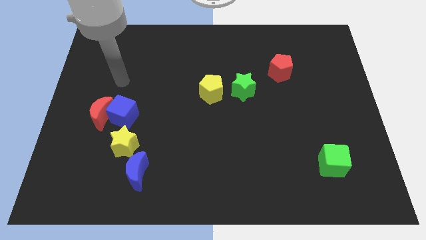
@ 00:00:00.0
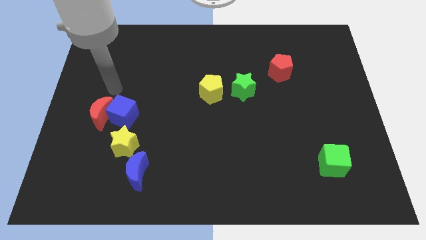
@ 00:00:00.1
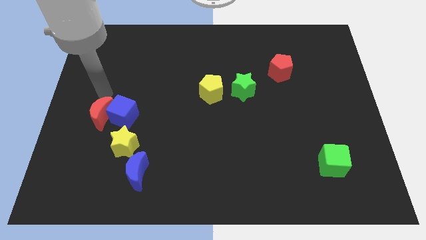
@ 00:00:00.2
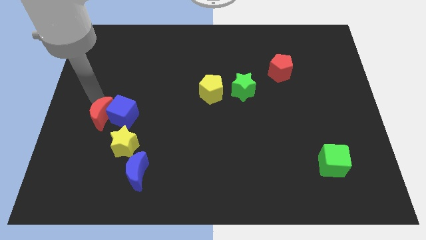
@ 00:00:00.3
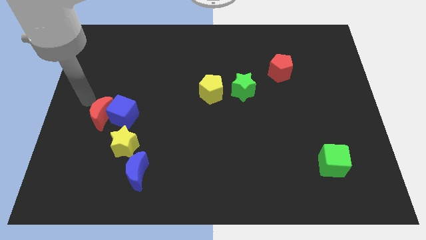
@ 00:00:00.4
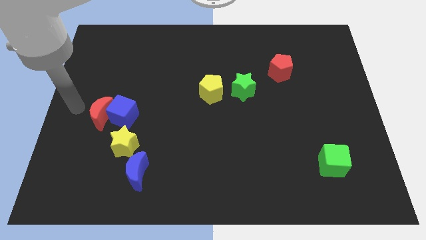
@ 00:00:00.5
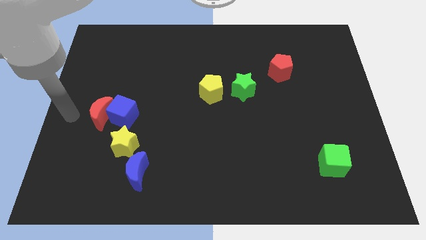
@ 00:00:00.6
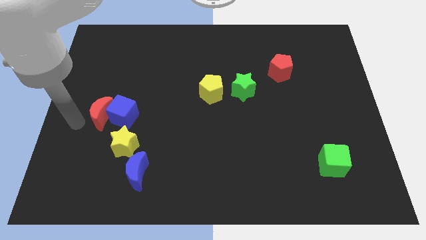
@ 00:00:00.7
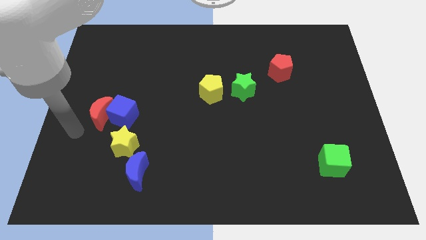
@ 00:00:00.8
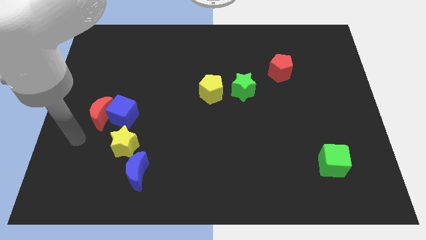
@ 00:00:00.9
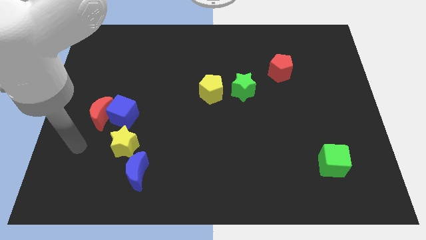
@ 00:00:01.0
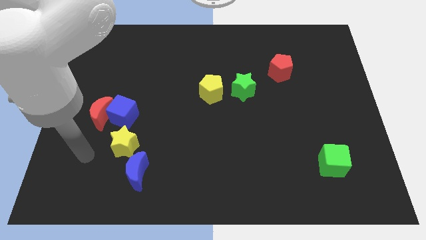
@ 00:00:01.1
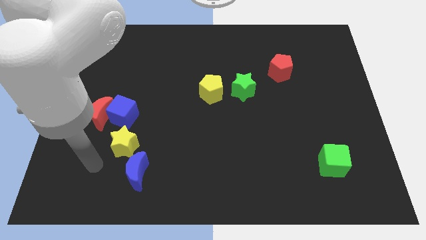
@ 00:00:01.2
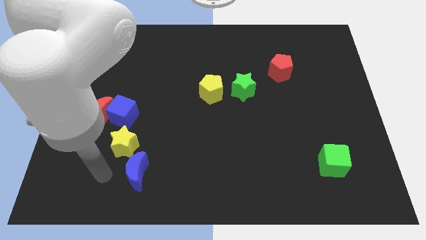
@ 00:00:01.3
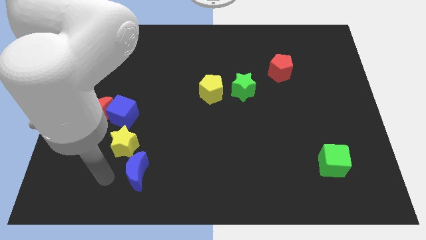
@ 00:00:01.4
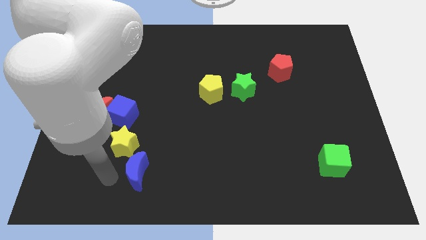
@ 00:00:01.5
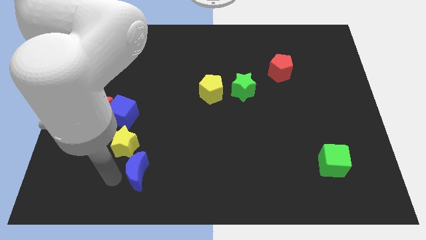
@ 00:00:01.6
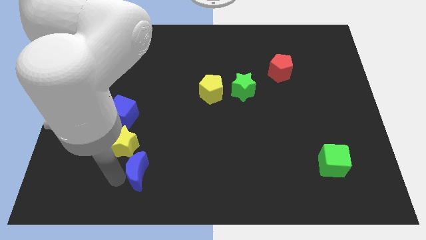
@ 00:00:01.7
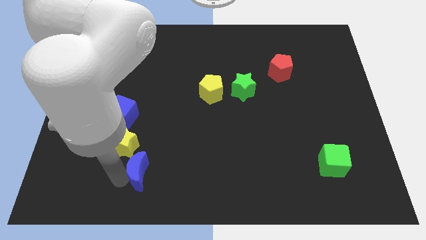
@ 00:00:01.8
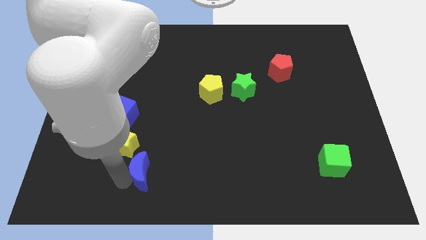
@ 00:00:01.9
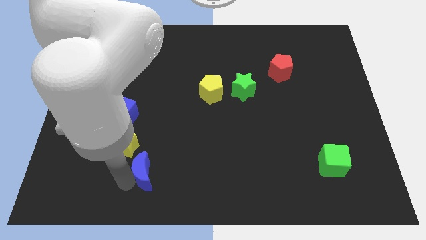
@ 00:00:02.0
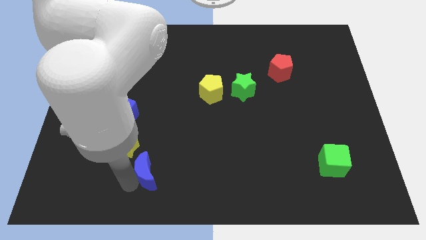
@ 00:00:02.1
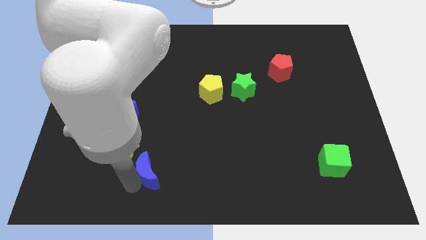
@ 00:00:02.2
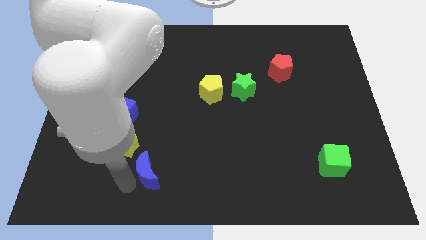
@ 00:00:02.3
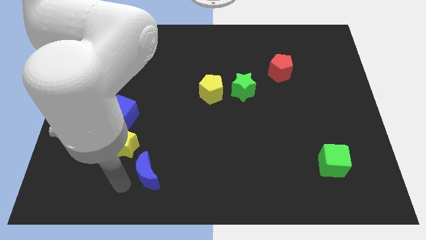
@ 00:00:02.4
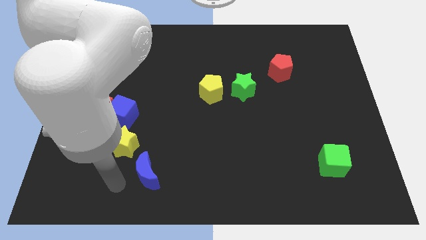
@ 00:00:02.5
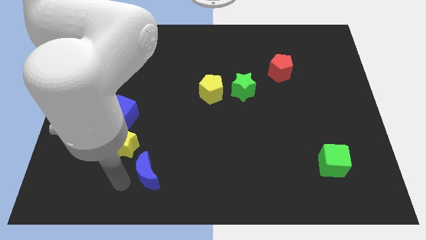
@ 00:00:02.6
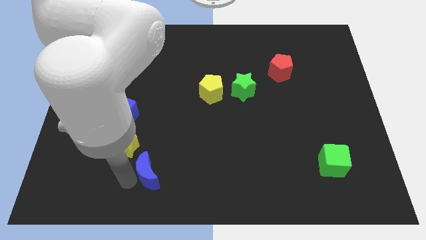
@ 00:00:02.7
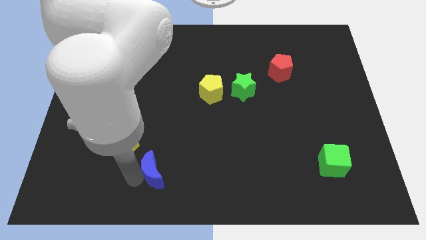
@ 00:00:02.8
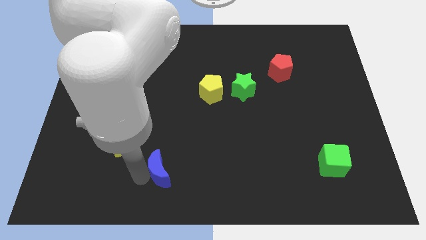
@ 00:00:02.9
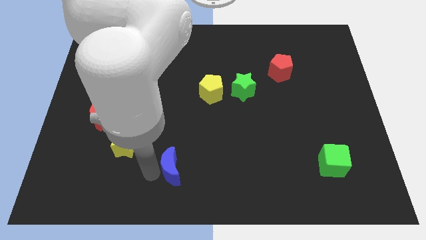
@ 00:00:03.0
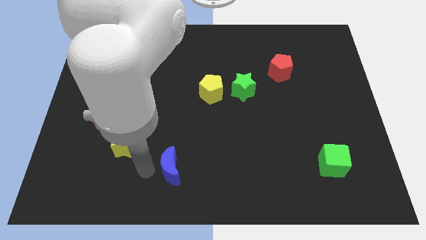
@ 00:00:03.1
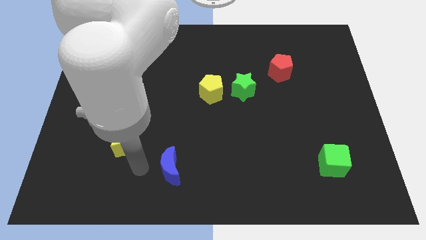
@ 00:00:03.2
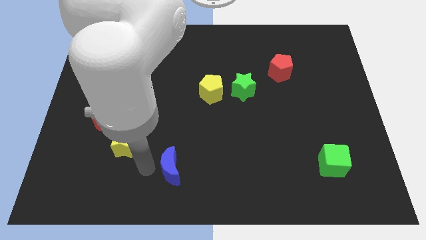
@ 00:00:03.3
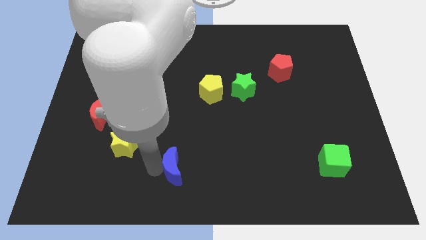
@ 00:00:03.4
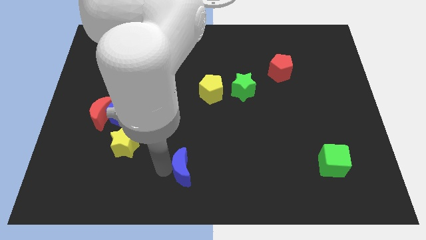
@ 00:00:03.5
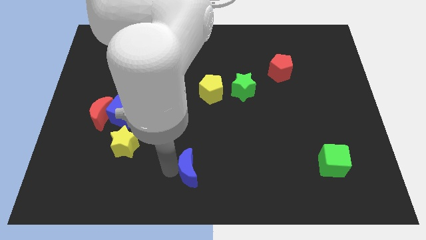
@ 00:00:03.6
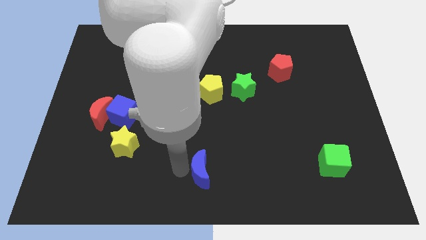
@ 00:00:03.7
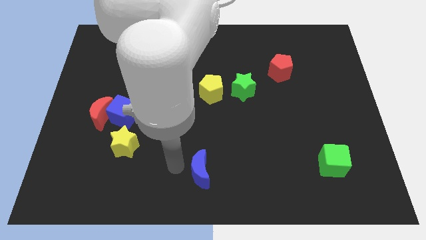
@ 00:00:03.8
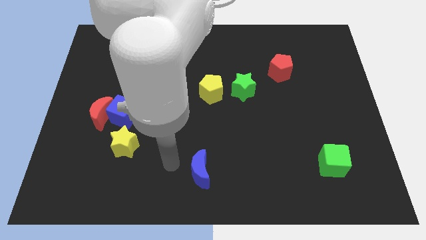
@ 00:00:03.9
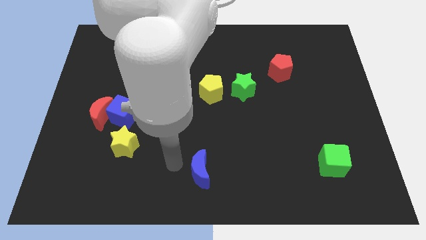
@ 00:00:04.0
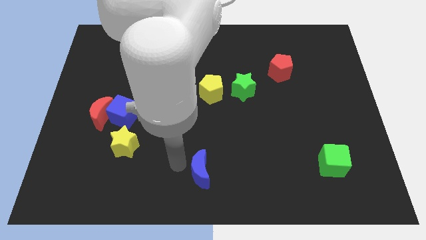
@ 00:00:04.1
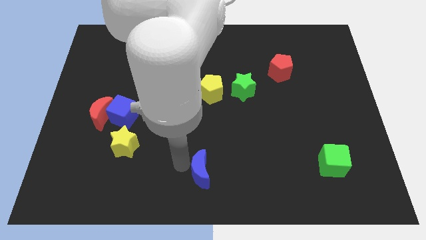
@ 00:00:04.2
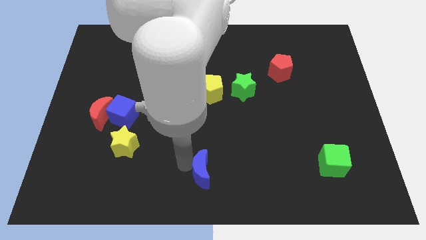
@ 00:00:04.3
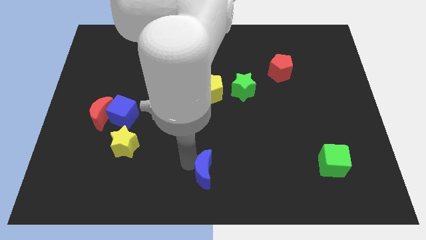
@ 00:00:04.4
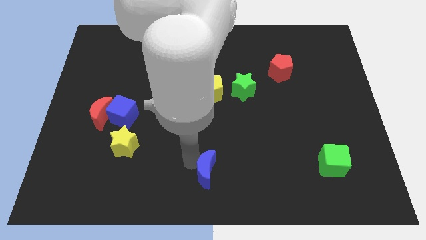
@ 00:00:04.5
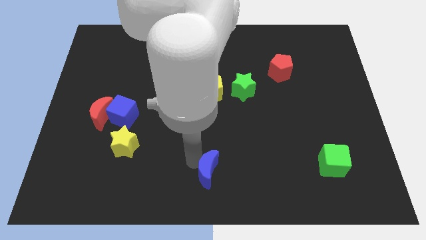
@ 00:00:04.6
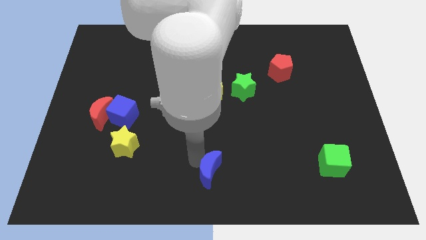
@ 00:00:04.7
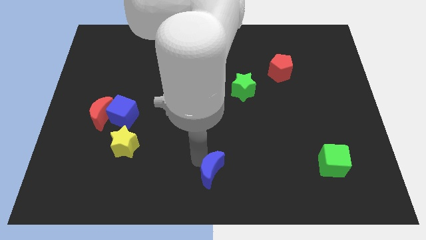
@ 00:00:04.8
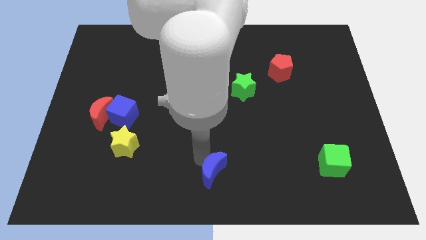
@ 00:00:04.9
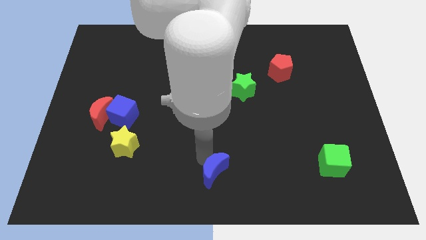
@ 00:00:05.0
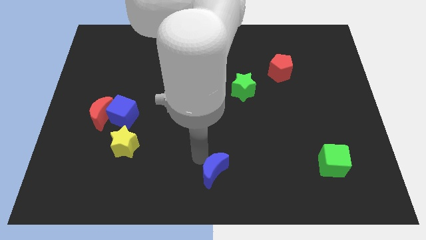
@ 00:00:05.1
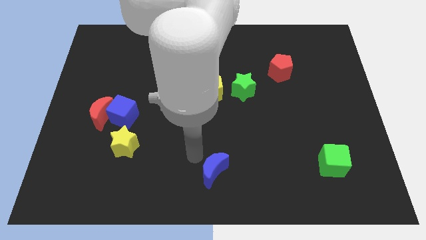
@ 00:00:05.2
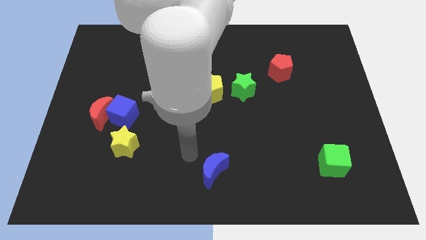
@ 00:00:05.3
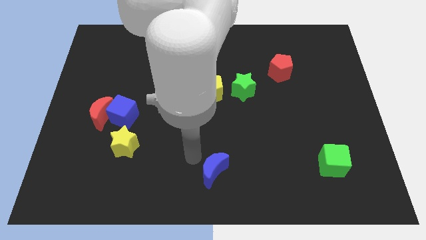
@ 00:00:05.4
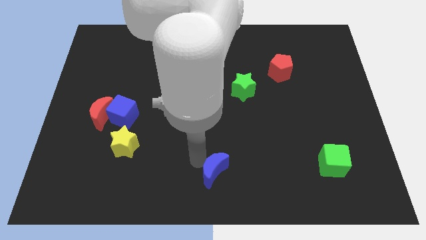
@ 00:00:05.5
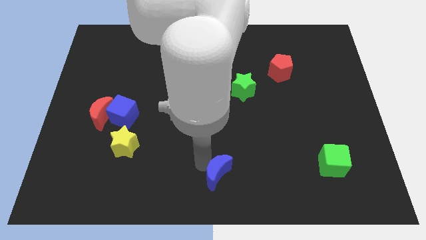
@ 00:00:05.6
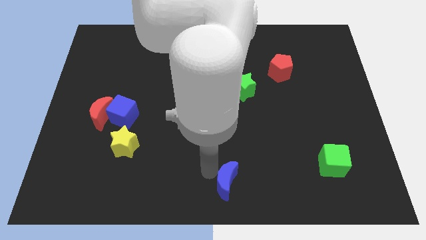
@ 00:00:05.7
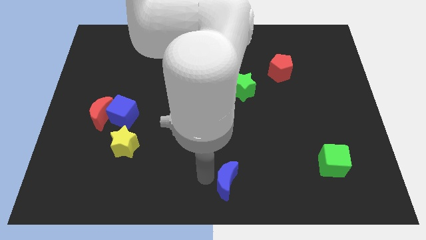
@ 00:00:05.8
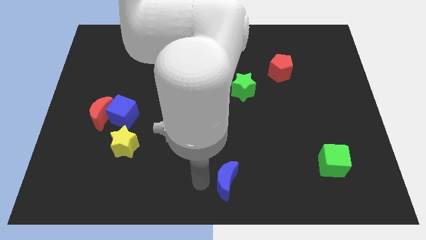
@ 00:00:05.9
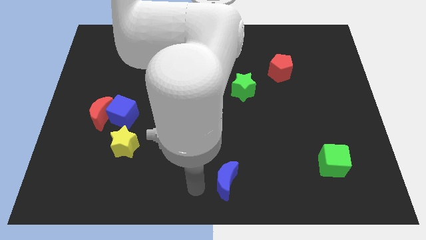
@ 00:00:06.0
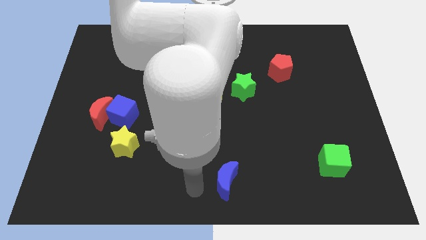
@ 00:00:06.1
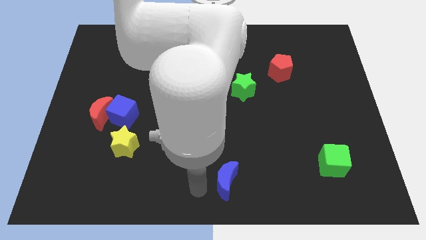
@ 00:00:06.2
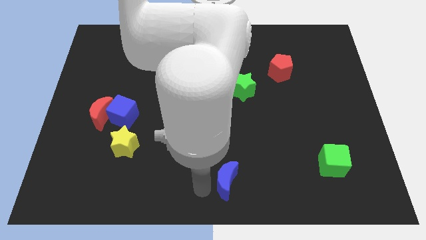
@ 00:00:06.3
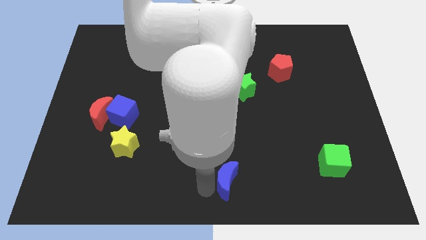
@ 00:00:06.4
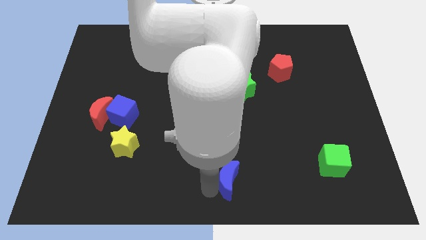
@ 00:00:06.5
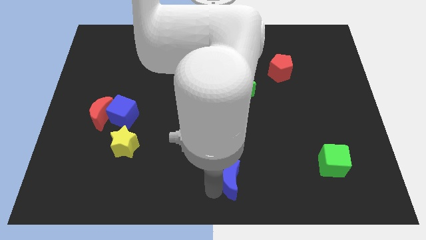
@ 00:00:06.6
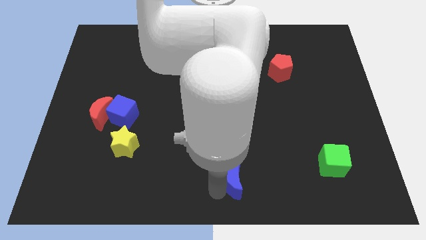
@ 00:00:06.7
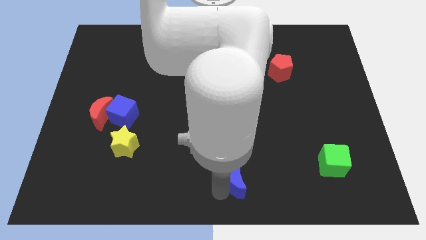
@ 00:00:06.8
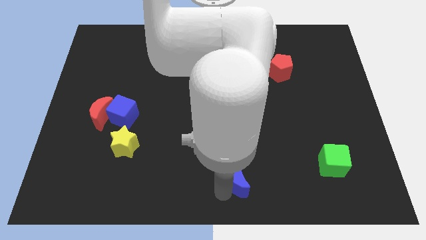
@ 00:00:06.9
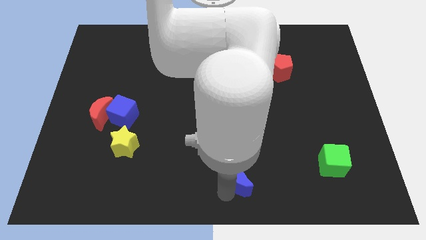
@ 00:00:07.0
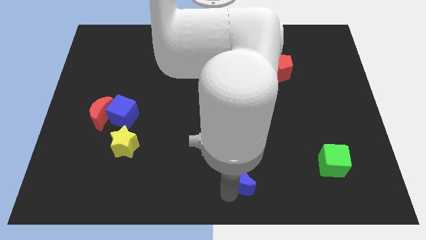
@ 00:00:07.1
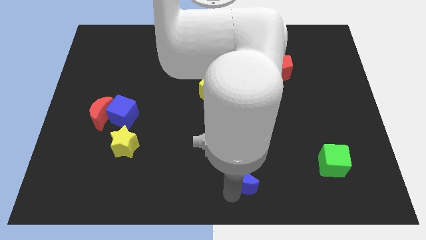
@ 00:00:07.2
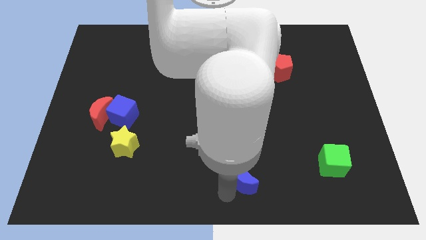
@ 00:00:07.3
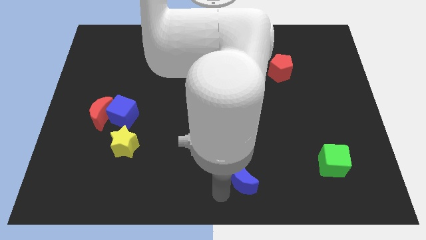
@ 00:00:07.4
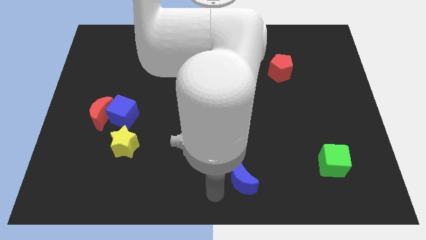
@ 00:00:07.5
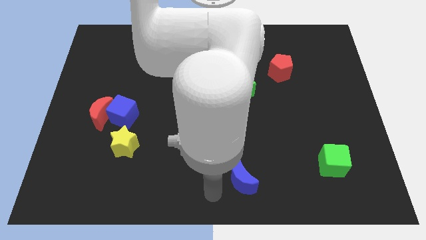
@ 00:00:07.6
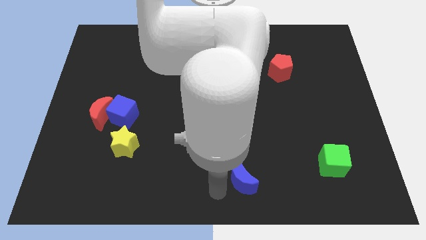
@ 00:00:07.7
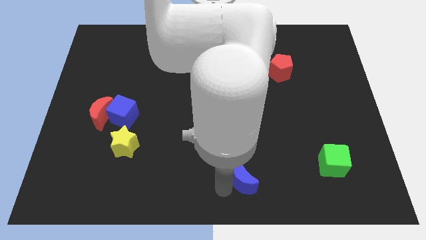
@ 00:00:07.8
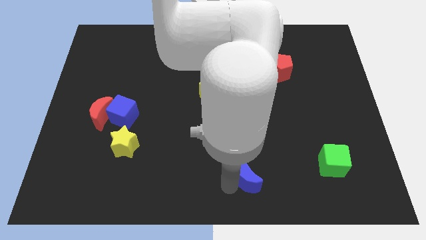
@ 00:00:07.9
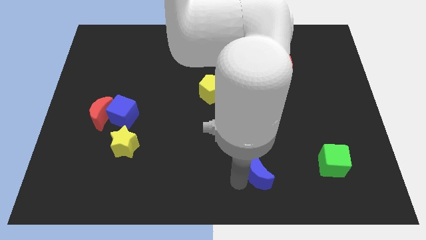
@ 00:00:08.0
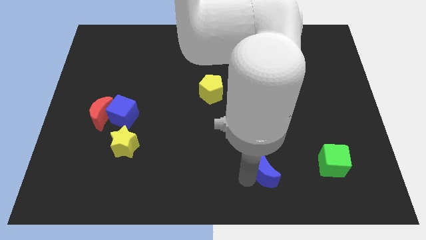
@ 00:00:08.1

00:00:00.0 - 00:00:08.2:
move the blue moon just left of the green cube
